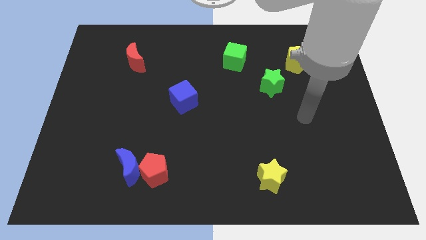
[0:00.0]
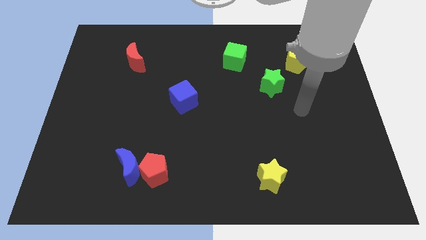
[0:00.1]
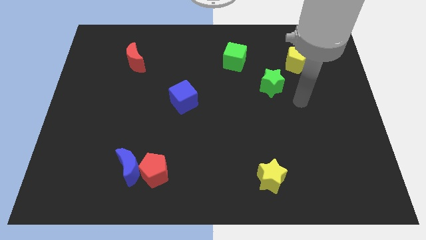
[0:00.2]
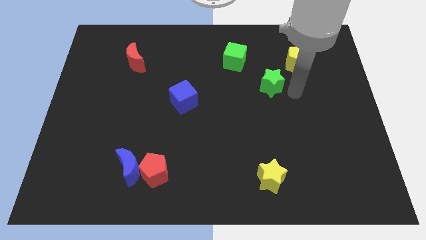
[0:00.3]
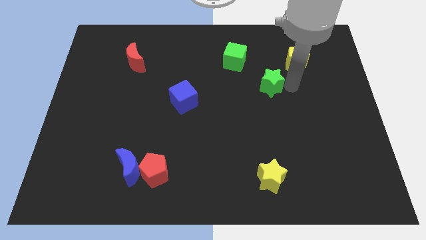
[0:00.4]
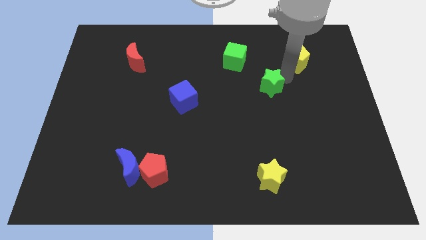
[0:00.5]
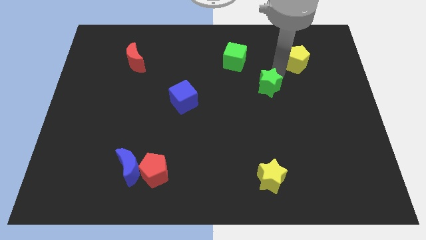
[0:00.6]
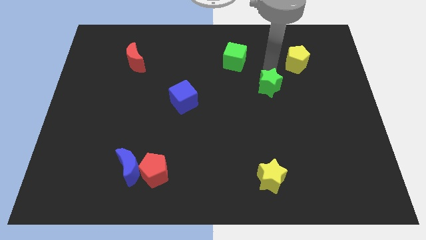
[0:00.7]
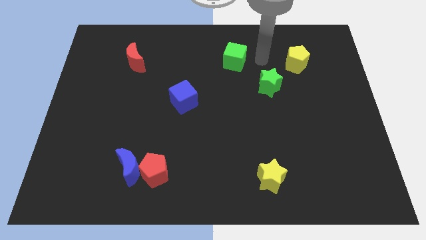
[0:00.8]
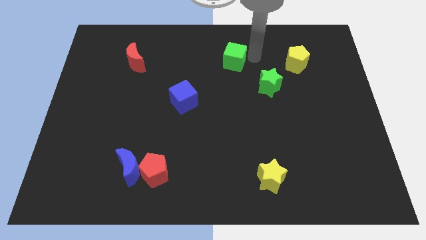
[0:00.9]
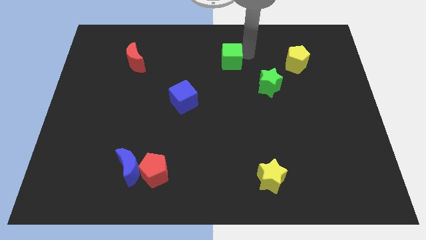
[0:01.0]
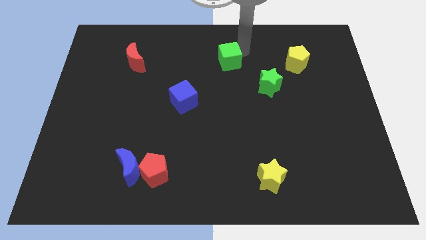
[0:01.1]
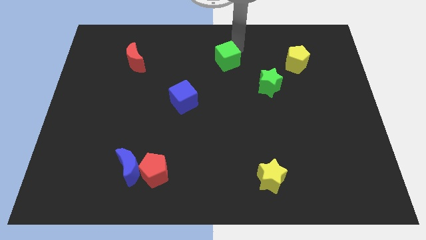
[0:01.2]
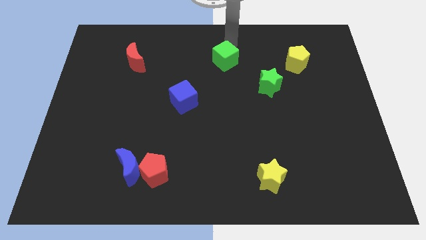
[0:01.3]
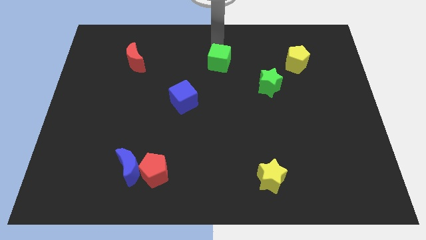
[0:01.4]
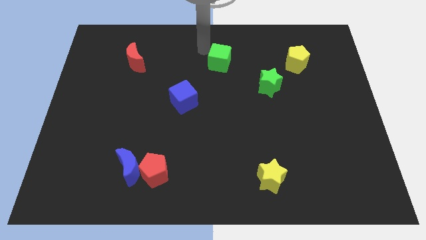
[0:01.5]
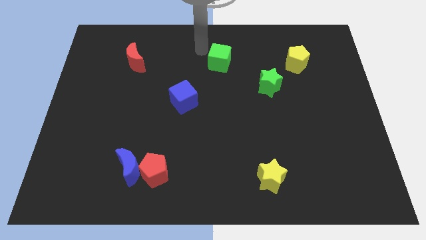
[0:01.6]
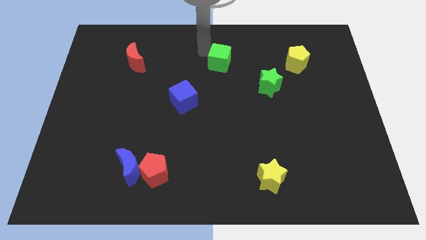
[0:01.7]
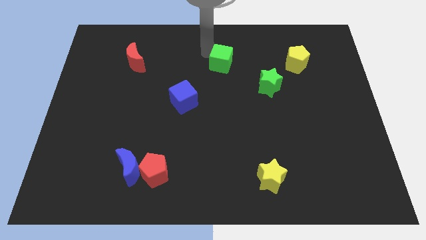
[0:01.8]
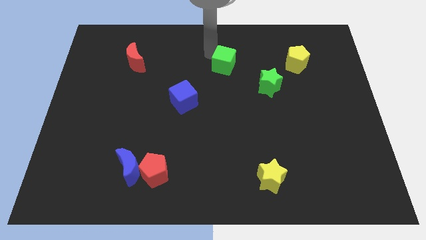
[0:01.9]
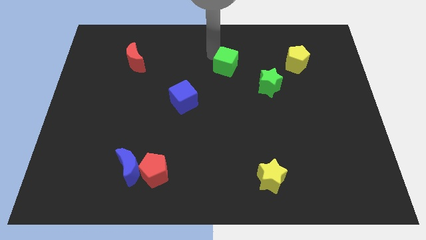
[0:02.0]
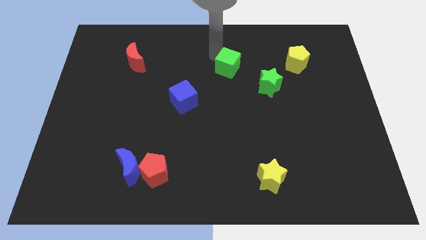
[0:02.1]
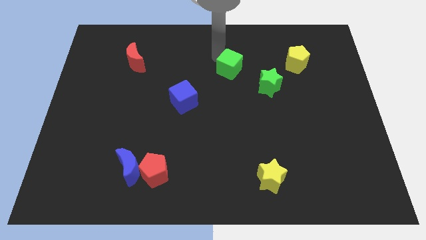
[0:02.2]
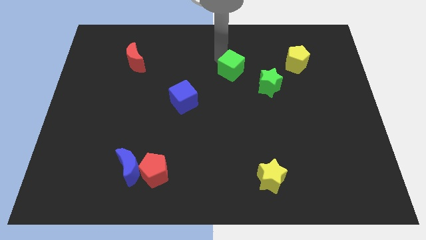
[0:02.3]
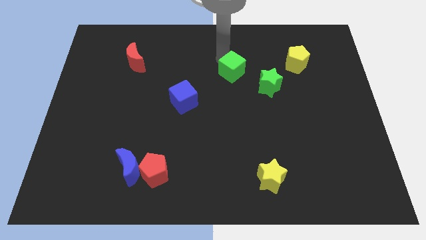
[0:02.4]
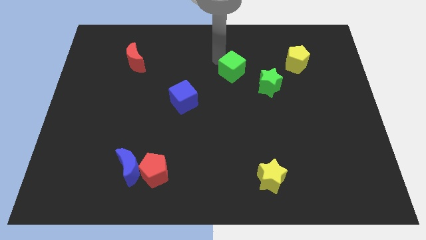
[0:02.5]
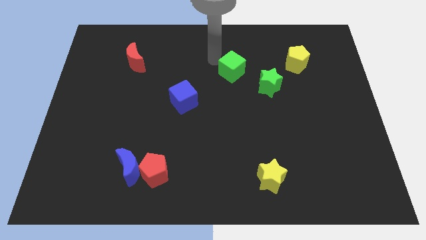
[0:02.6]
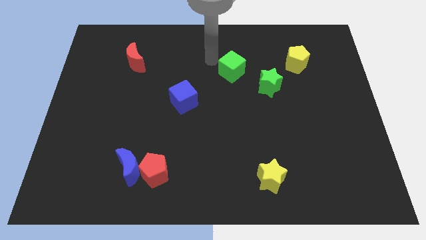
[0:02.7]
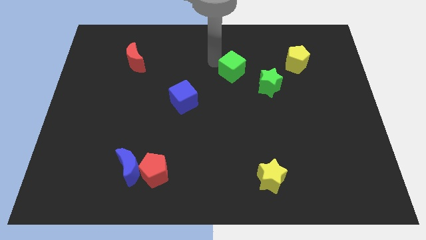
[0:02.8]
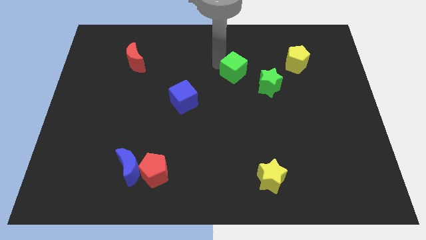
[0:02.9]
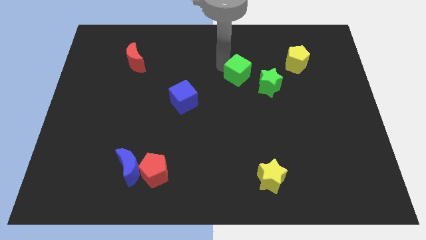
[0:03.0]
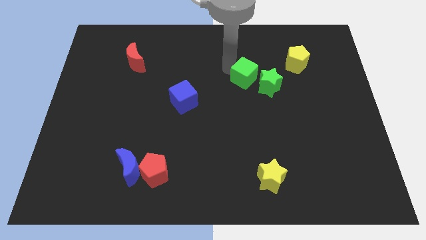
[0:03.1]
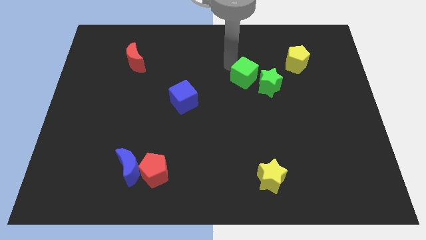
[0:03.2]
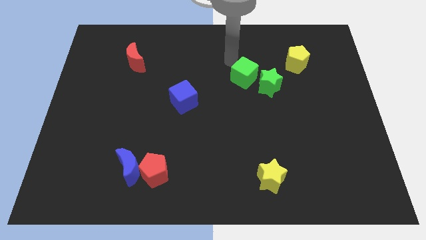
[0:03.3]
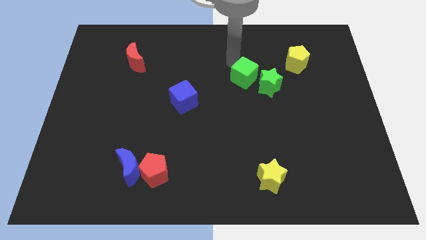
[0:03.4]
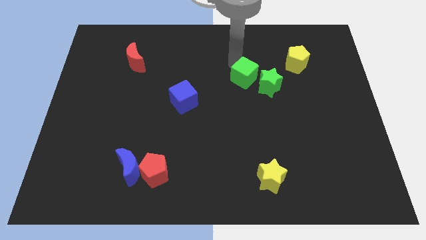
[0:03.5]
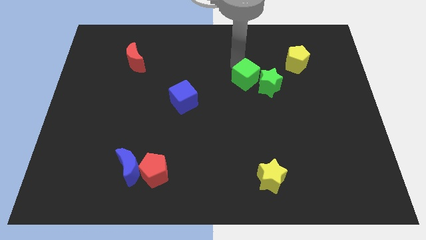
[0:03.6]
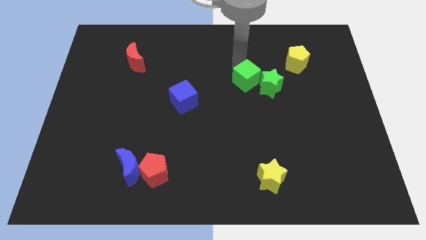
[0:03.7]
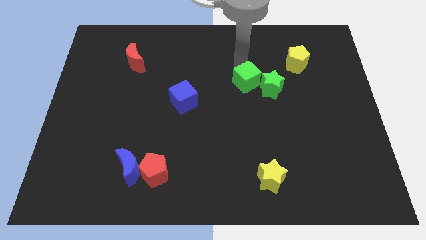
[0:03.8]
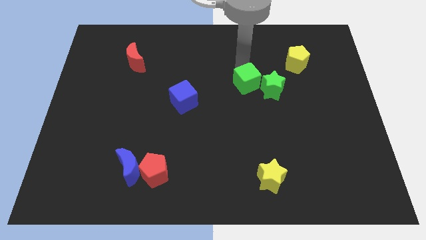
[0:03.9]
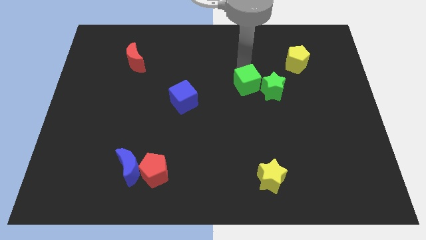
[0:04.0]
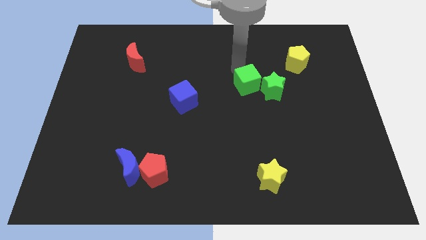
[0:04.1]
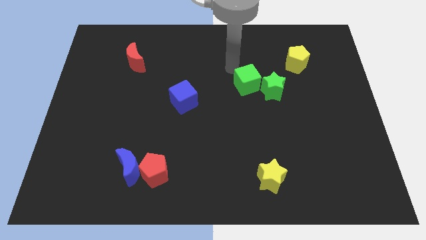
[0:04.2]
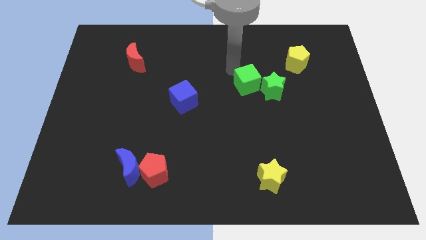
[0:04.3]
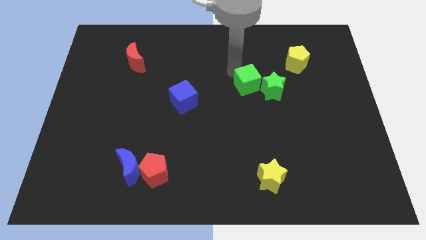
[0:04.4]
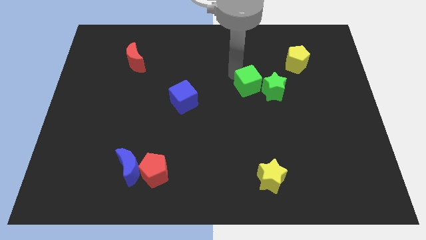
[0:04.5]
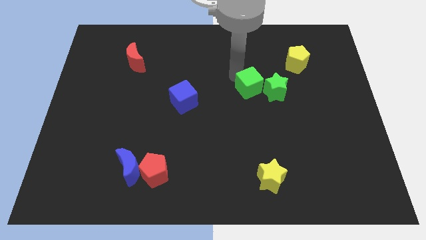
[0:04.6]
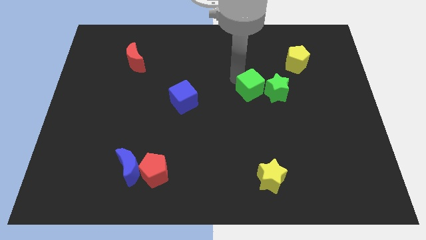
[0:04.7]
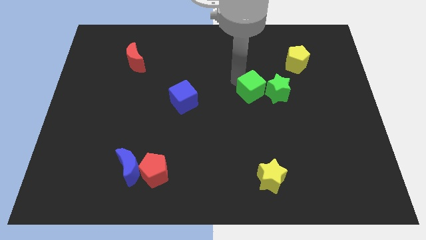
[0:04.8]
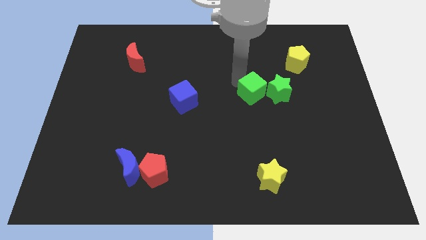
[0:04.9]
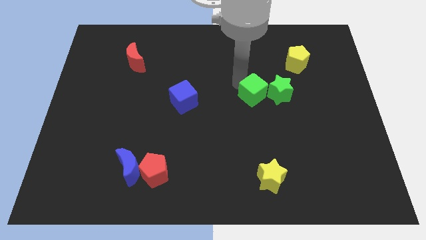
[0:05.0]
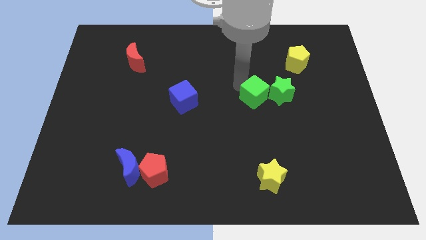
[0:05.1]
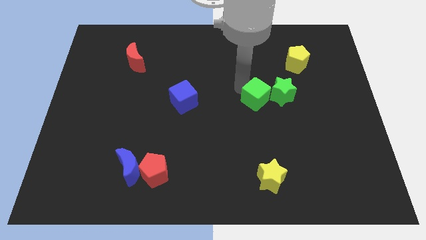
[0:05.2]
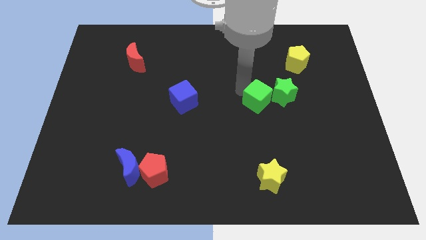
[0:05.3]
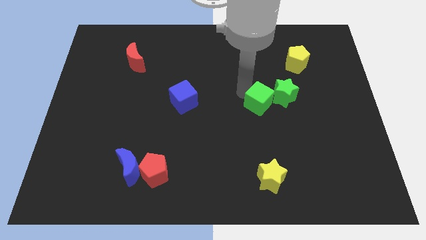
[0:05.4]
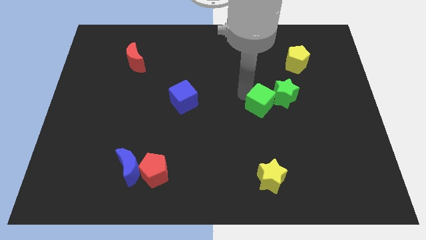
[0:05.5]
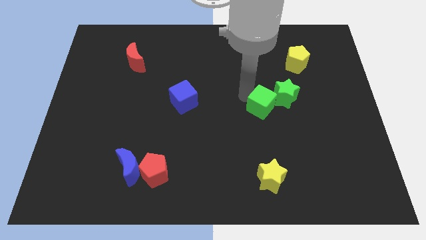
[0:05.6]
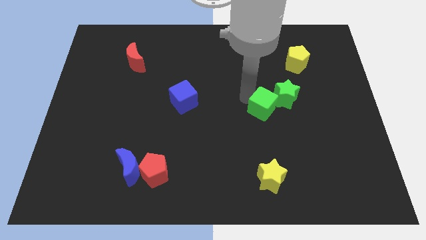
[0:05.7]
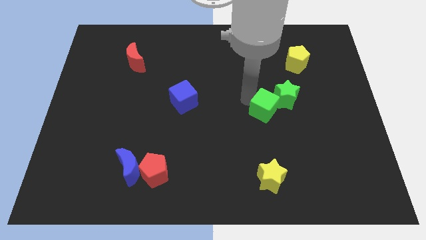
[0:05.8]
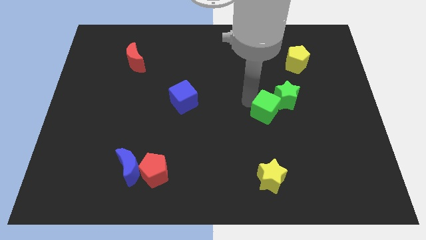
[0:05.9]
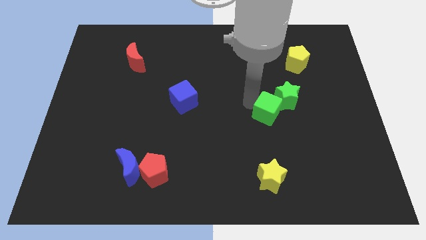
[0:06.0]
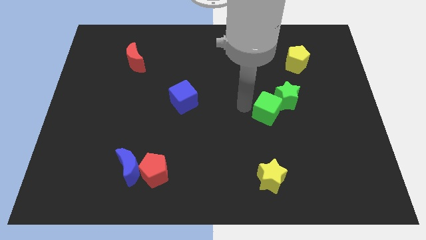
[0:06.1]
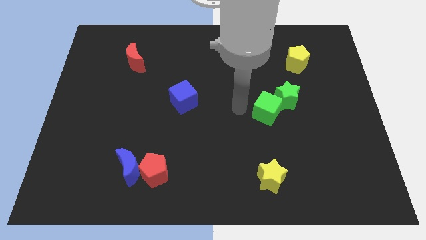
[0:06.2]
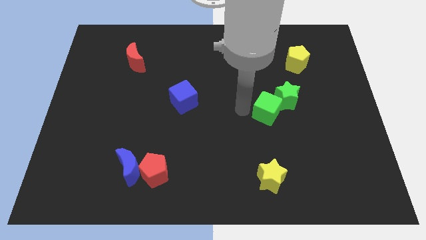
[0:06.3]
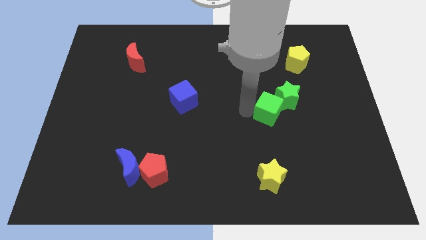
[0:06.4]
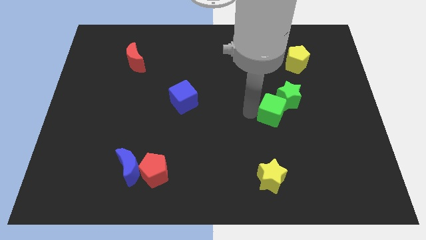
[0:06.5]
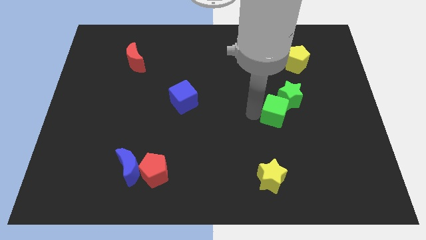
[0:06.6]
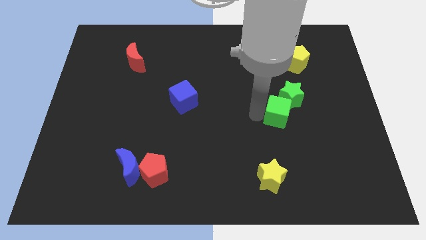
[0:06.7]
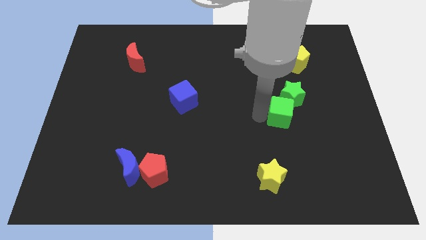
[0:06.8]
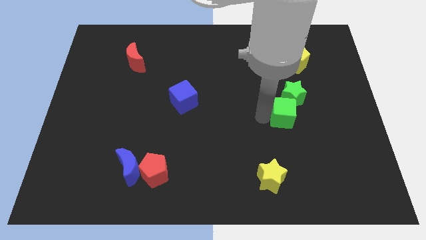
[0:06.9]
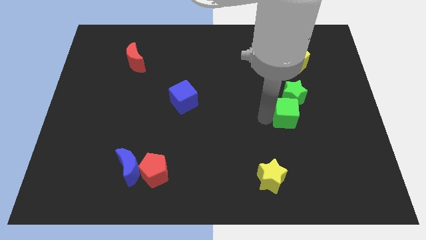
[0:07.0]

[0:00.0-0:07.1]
push the green cube downwards and right

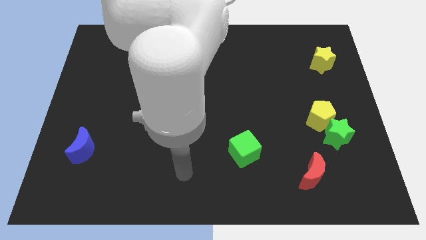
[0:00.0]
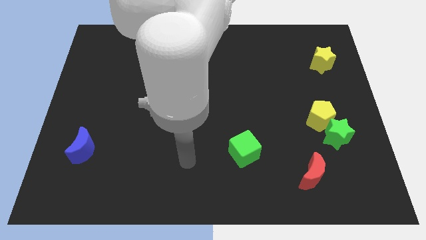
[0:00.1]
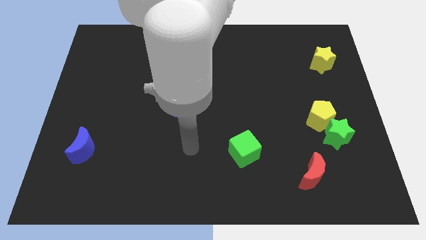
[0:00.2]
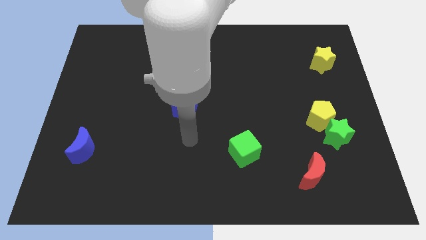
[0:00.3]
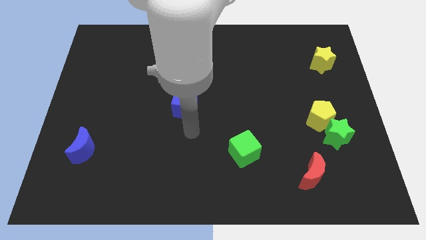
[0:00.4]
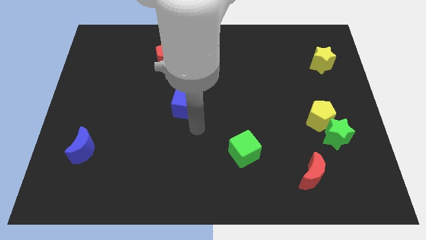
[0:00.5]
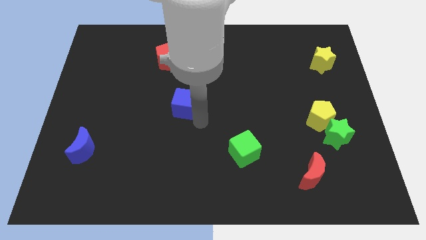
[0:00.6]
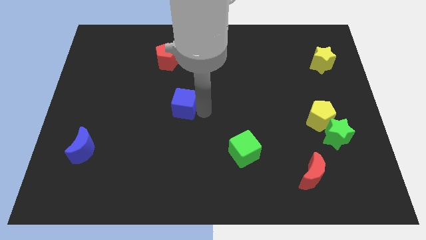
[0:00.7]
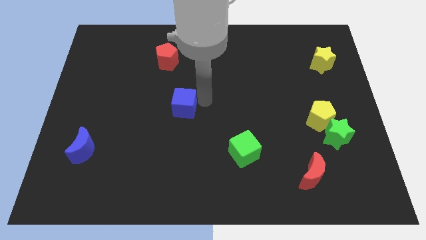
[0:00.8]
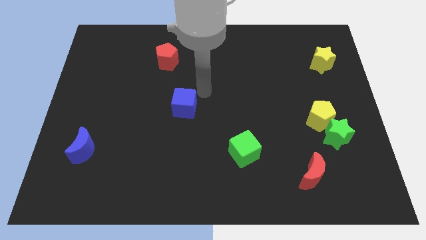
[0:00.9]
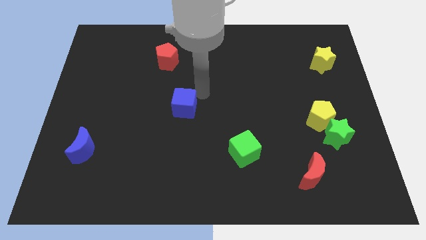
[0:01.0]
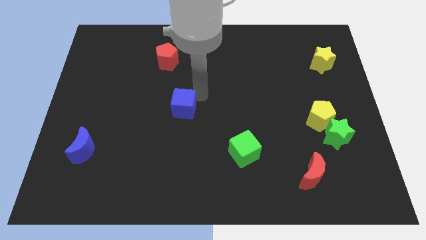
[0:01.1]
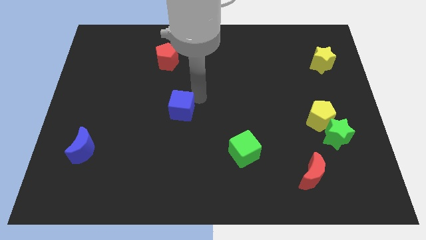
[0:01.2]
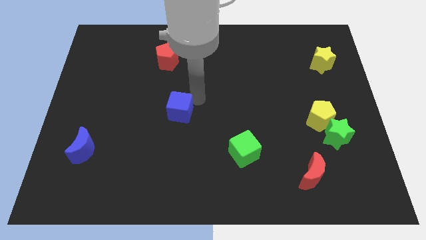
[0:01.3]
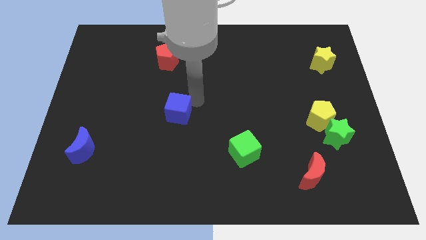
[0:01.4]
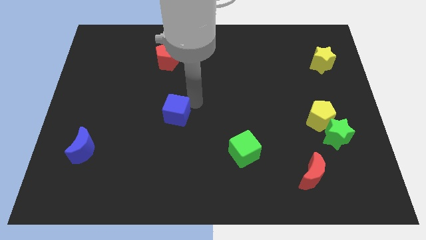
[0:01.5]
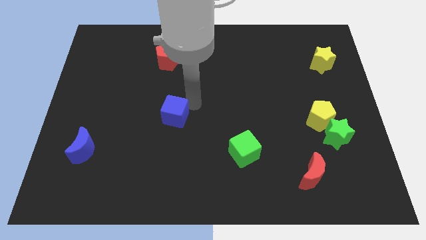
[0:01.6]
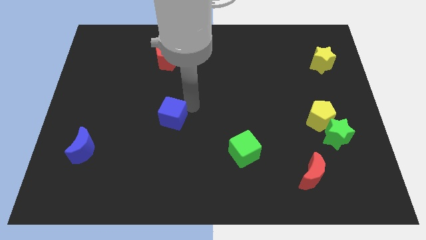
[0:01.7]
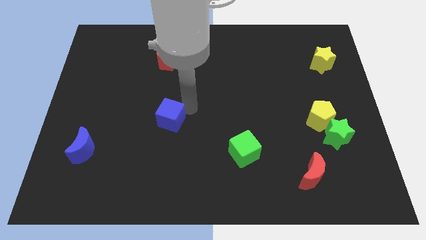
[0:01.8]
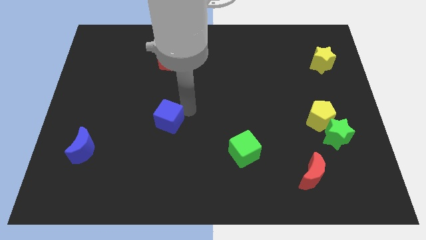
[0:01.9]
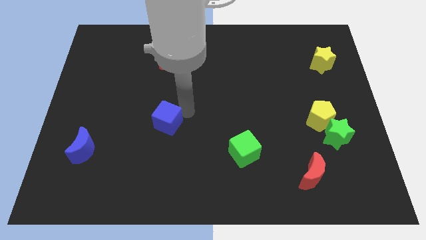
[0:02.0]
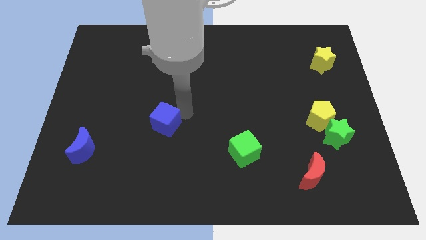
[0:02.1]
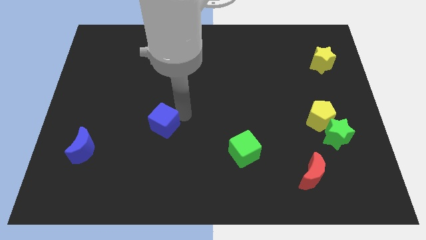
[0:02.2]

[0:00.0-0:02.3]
slightly move the blue cube down and to the left diagonally
